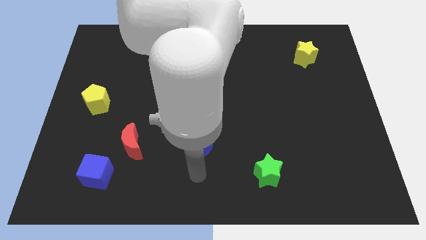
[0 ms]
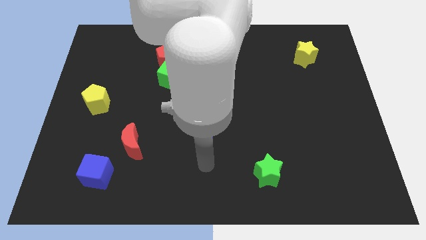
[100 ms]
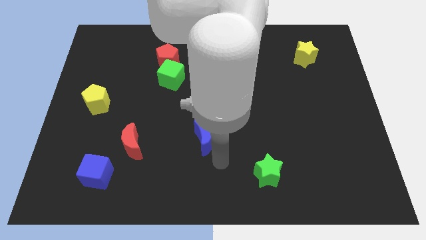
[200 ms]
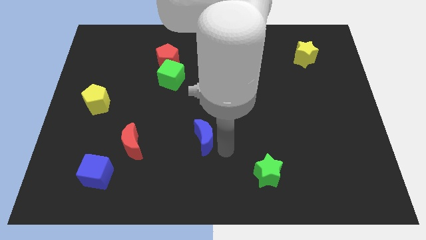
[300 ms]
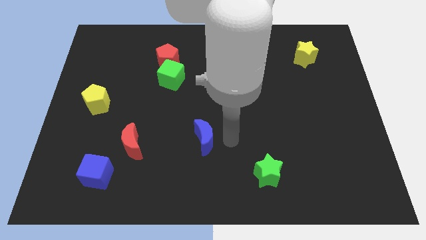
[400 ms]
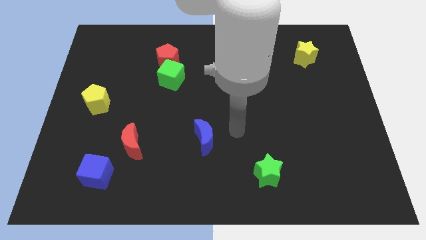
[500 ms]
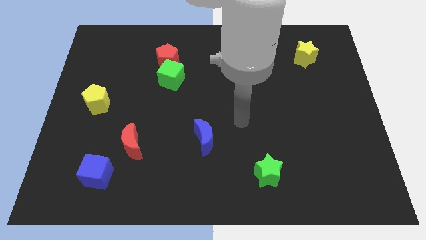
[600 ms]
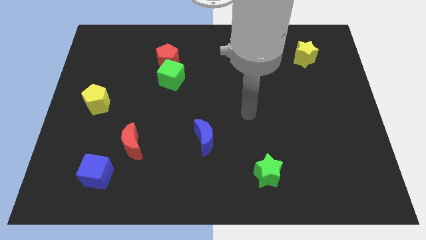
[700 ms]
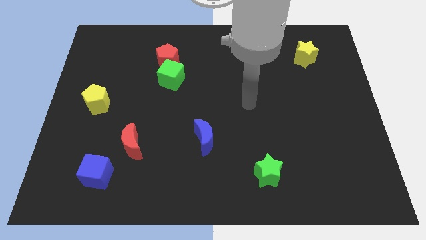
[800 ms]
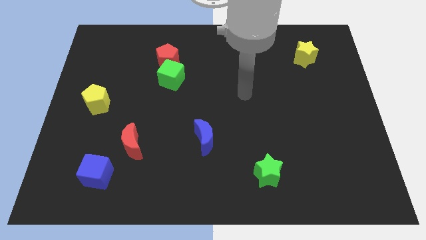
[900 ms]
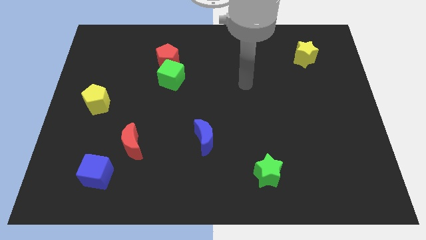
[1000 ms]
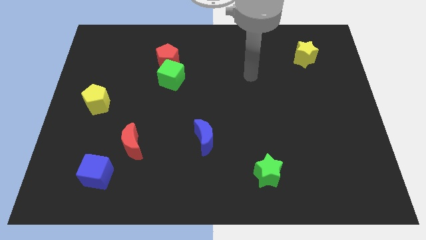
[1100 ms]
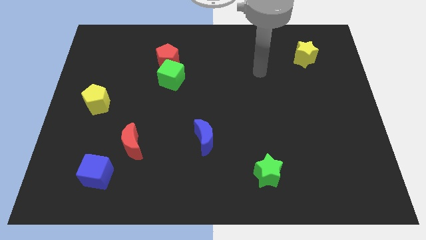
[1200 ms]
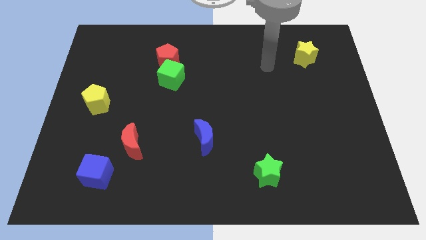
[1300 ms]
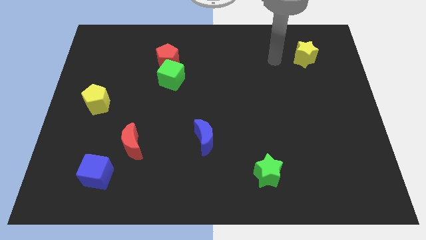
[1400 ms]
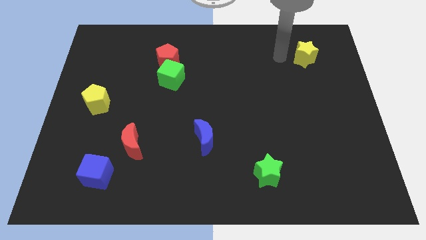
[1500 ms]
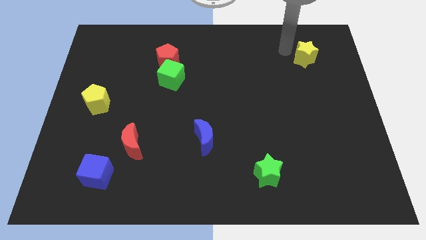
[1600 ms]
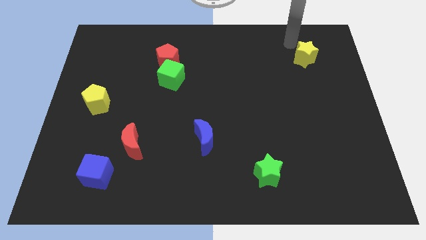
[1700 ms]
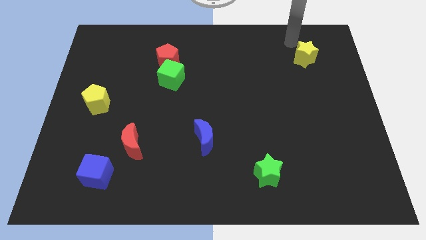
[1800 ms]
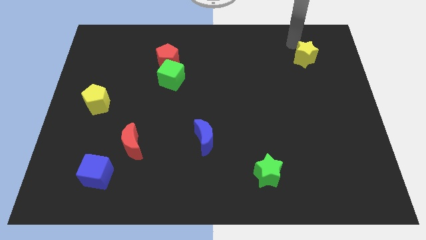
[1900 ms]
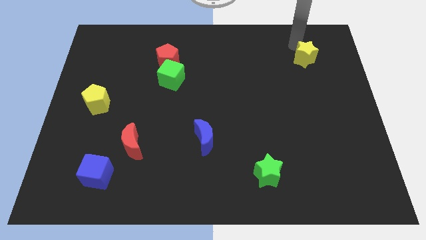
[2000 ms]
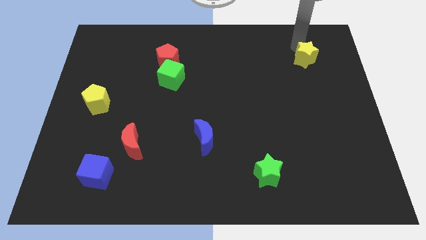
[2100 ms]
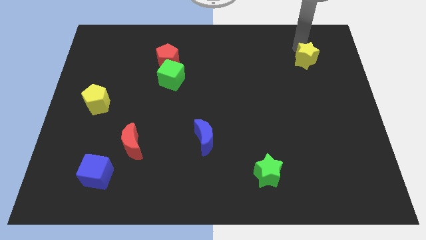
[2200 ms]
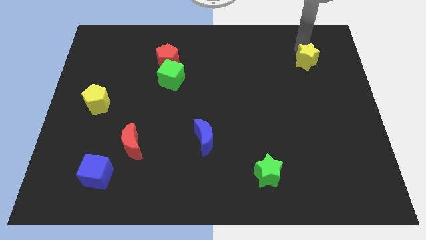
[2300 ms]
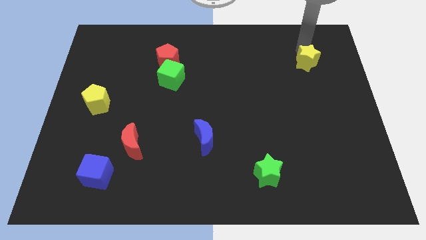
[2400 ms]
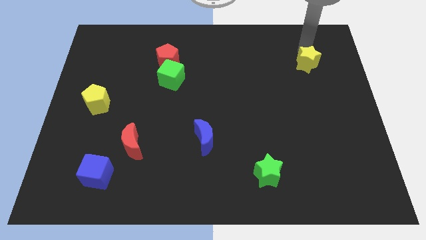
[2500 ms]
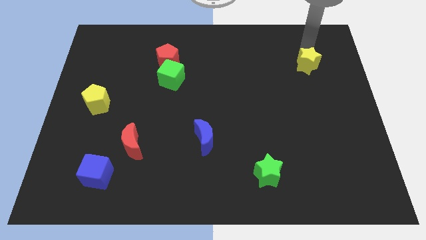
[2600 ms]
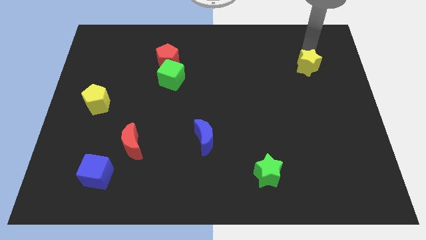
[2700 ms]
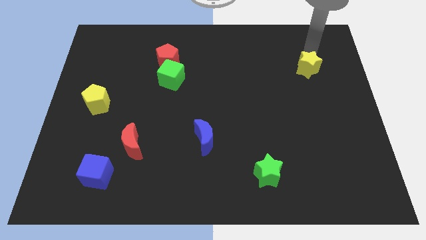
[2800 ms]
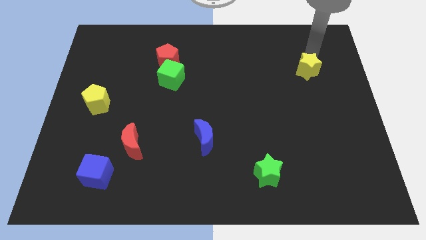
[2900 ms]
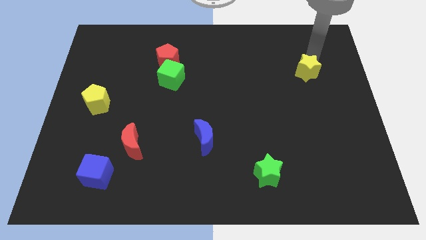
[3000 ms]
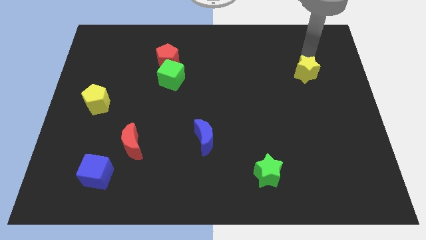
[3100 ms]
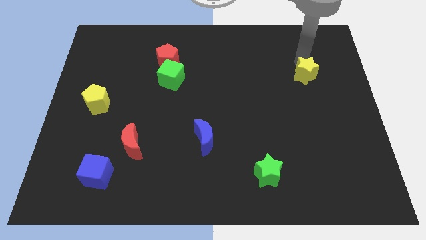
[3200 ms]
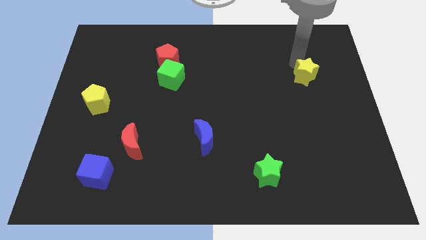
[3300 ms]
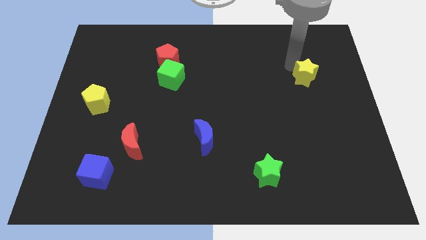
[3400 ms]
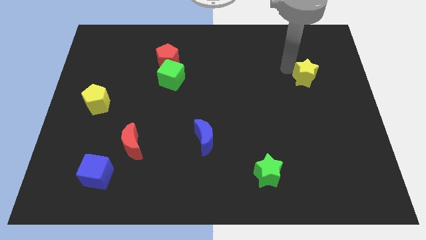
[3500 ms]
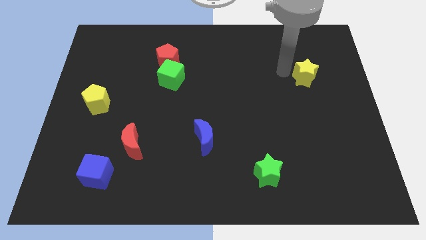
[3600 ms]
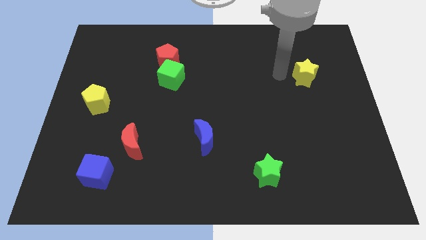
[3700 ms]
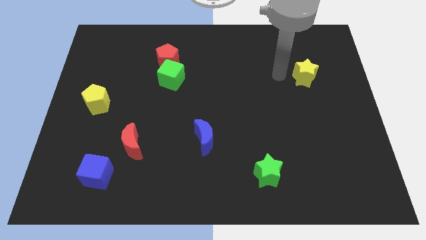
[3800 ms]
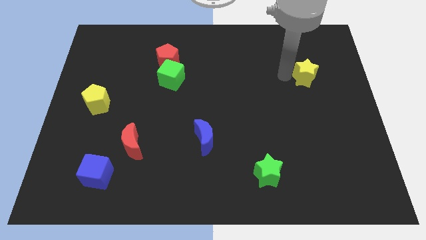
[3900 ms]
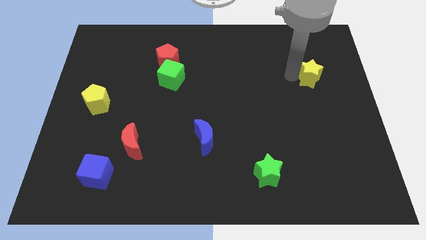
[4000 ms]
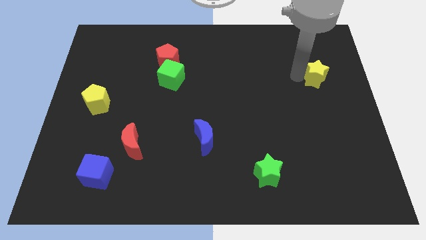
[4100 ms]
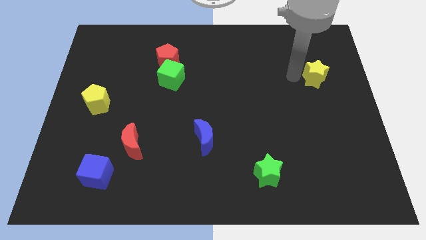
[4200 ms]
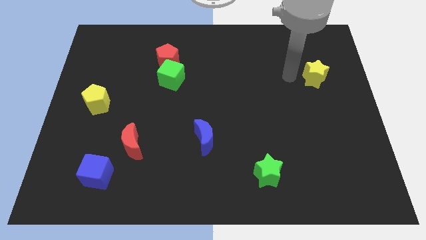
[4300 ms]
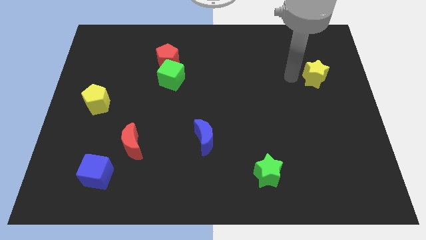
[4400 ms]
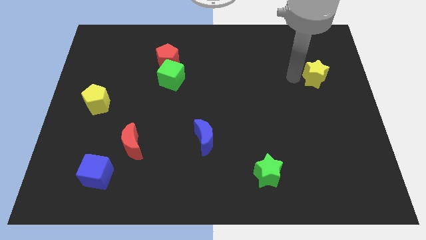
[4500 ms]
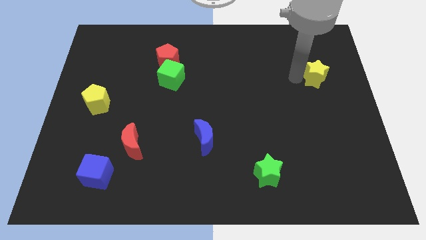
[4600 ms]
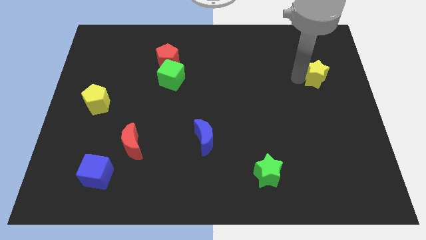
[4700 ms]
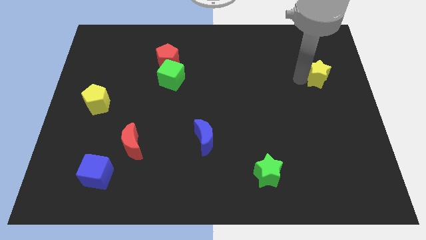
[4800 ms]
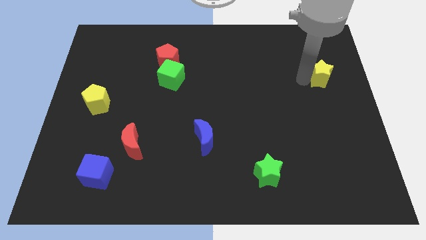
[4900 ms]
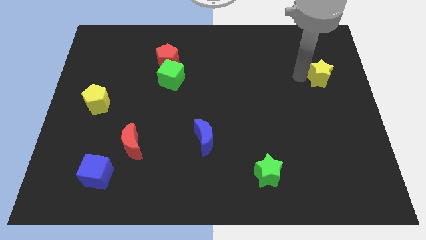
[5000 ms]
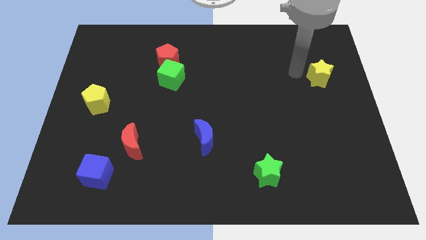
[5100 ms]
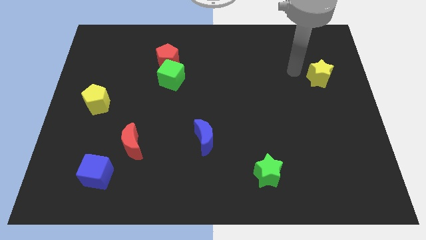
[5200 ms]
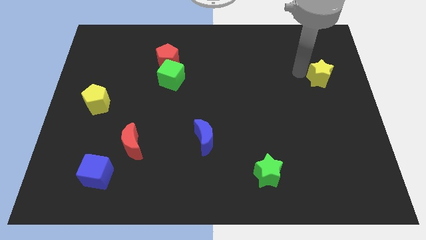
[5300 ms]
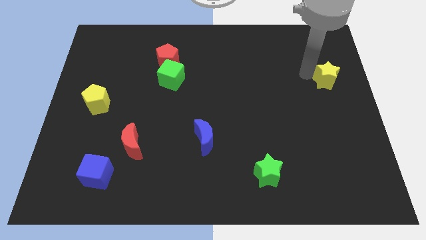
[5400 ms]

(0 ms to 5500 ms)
push the yellow star to the right side of the board

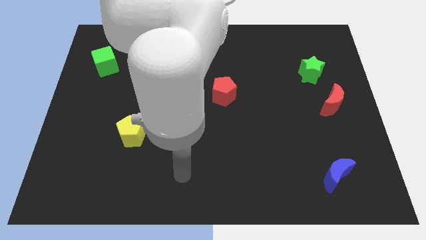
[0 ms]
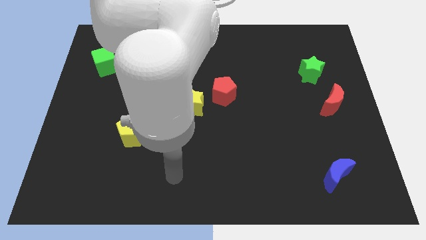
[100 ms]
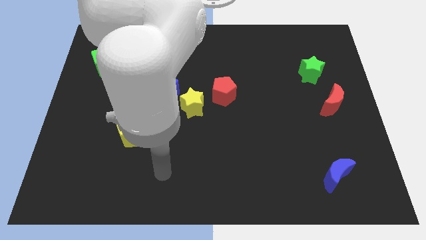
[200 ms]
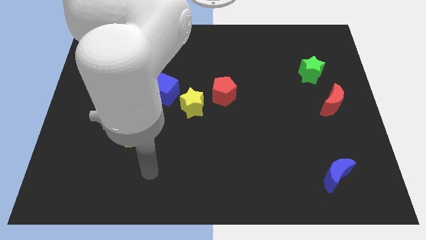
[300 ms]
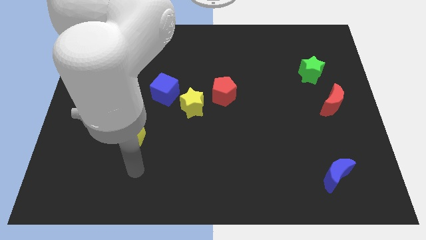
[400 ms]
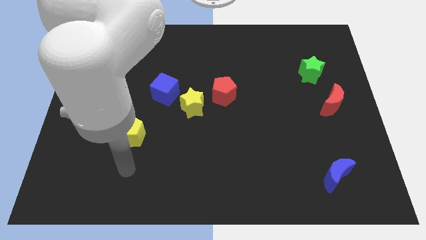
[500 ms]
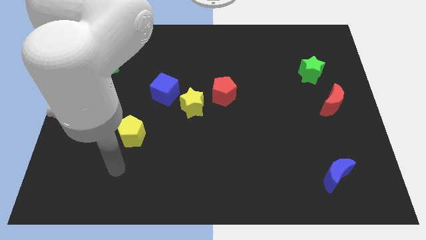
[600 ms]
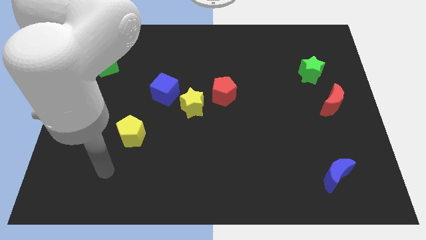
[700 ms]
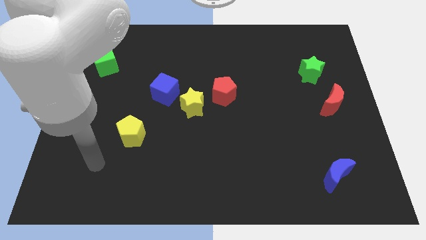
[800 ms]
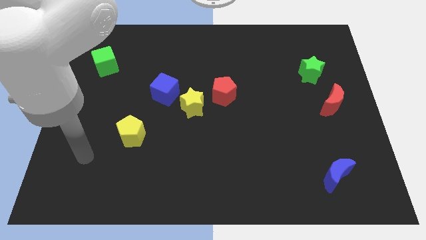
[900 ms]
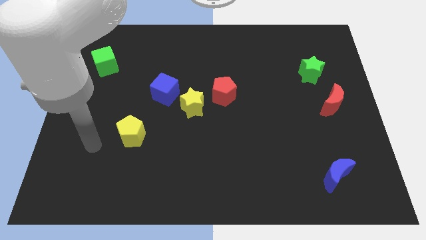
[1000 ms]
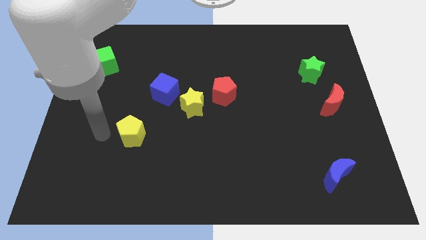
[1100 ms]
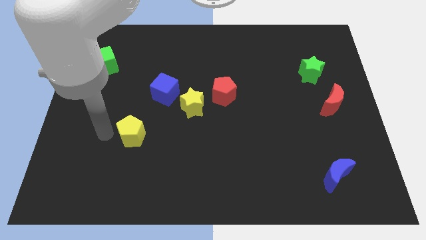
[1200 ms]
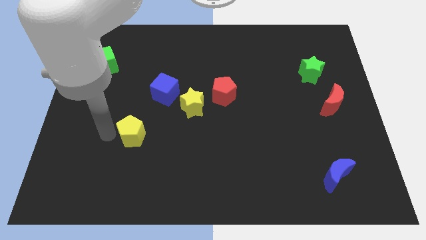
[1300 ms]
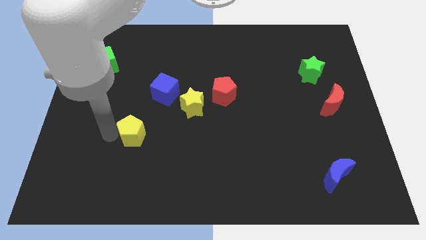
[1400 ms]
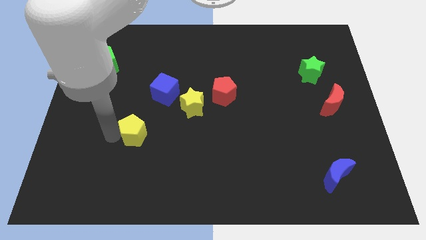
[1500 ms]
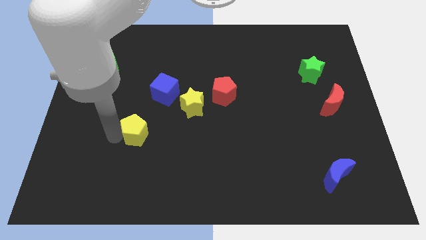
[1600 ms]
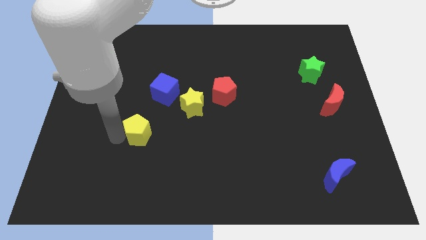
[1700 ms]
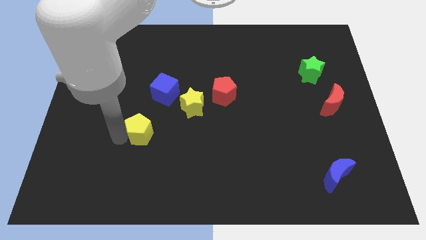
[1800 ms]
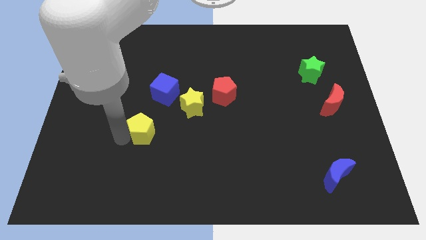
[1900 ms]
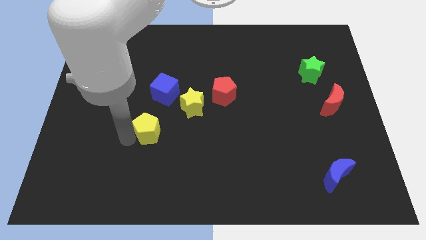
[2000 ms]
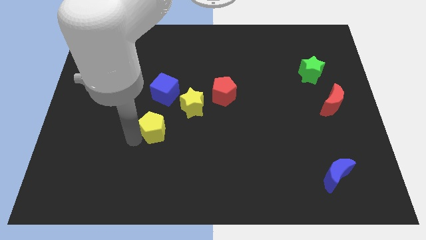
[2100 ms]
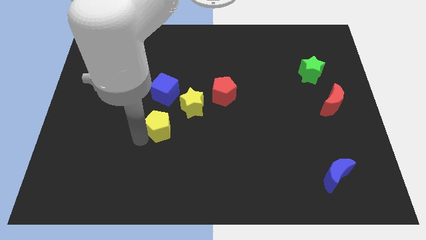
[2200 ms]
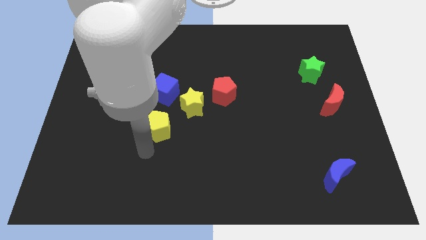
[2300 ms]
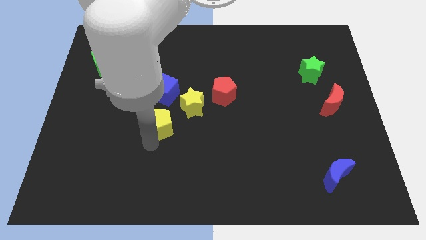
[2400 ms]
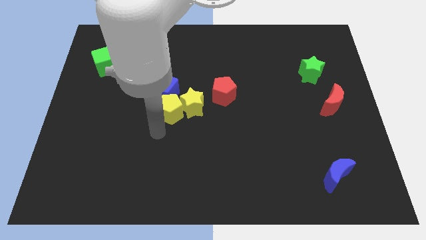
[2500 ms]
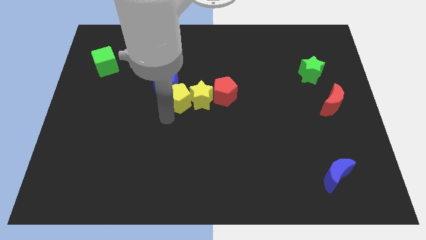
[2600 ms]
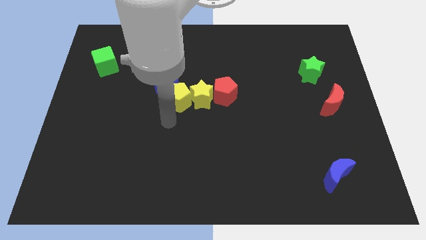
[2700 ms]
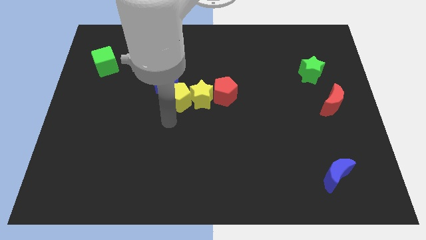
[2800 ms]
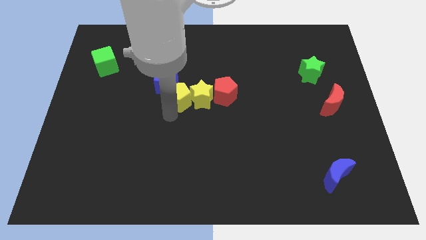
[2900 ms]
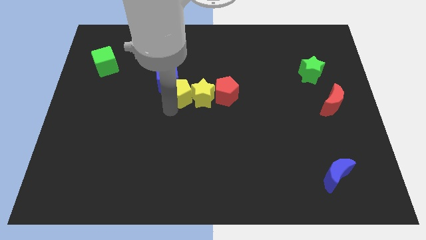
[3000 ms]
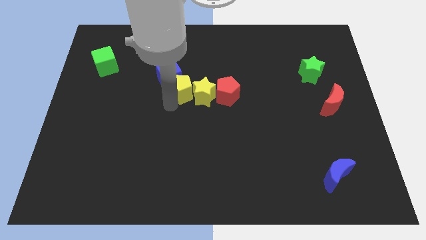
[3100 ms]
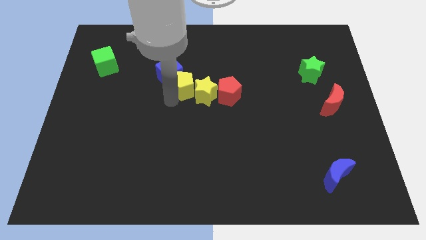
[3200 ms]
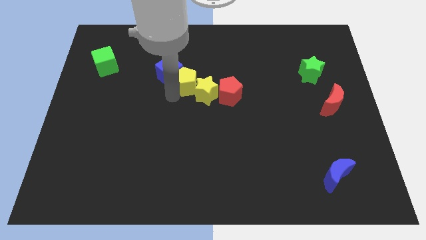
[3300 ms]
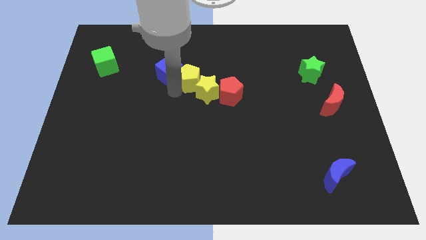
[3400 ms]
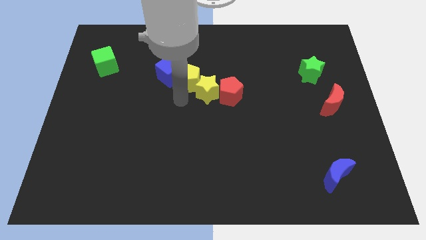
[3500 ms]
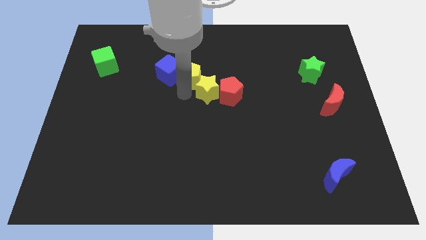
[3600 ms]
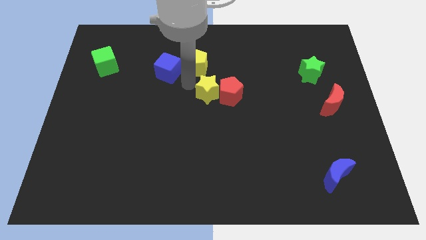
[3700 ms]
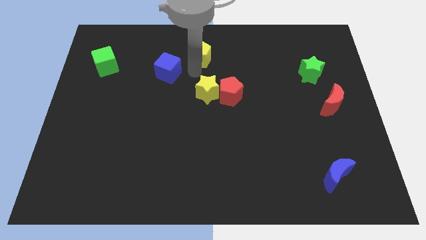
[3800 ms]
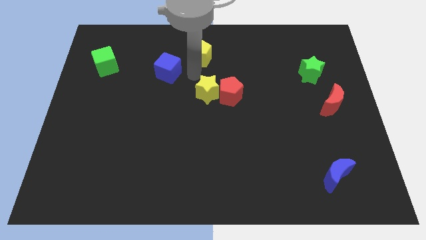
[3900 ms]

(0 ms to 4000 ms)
slide the yellow pentagon to the top side
